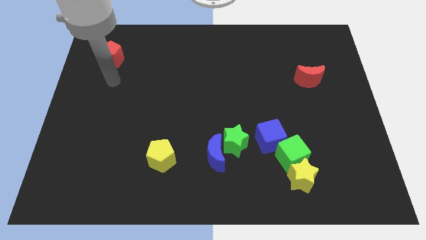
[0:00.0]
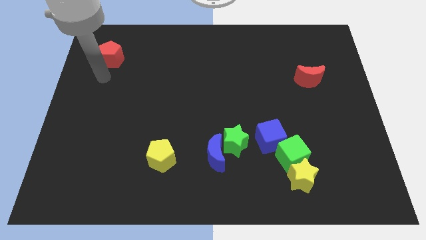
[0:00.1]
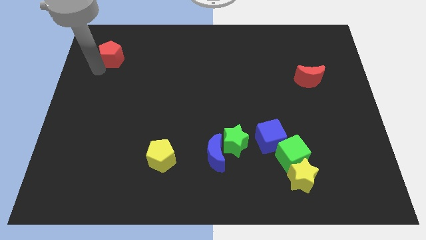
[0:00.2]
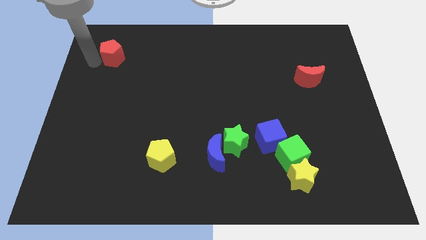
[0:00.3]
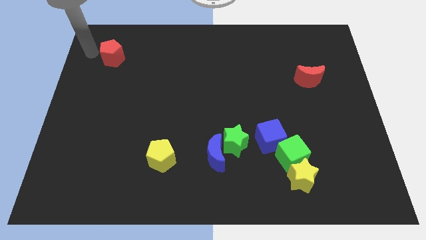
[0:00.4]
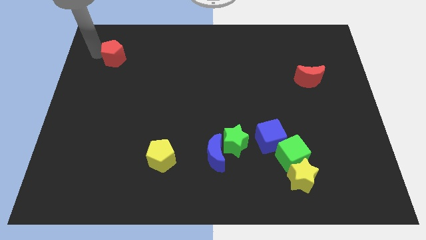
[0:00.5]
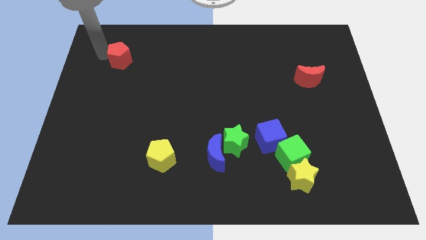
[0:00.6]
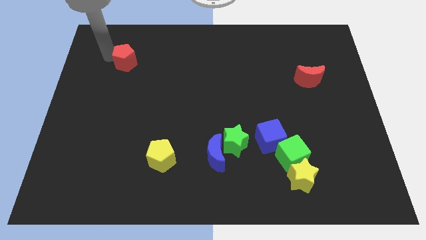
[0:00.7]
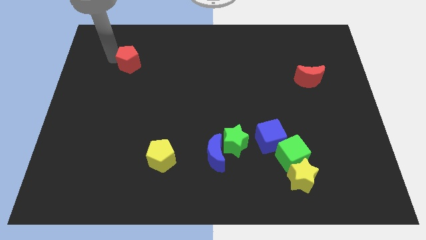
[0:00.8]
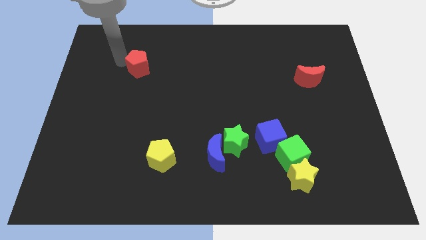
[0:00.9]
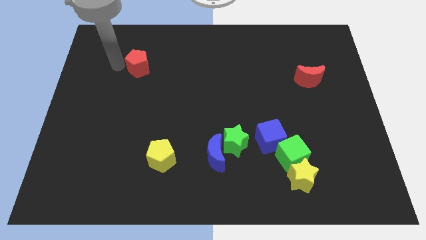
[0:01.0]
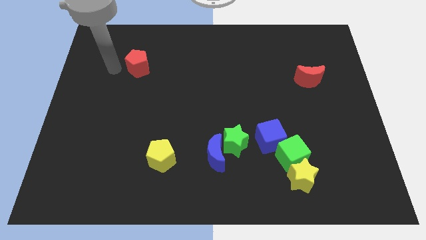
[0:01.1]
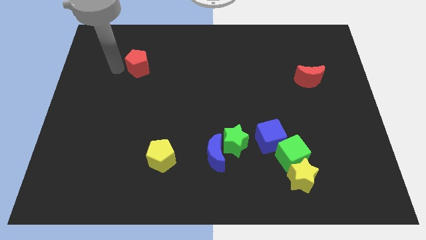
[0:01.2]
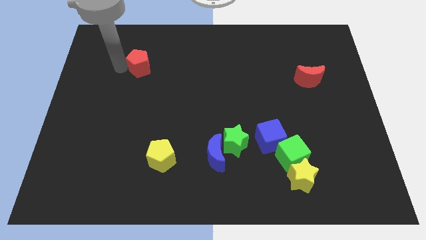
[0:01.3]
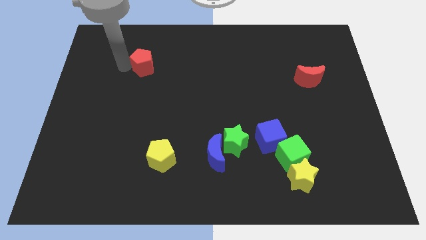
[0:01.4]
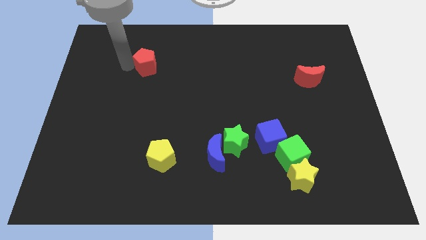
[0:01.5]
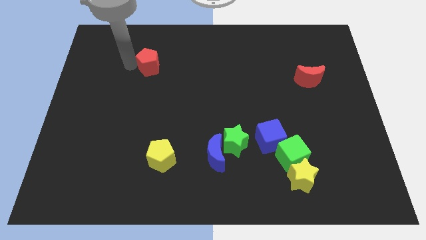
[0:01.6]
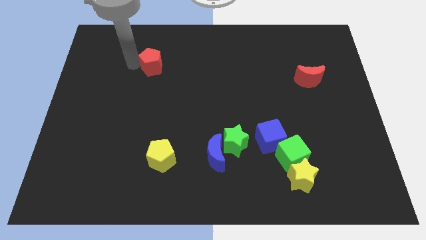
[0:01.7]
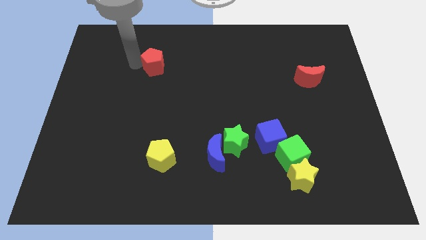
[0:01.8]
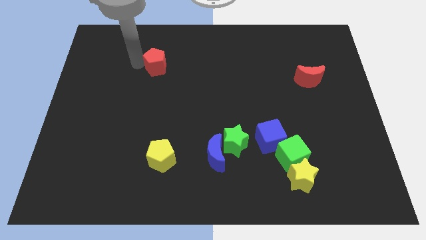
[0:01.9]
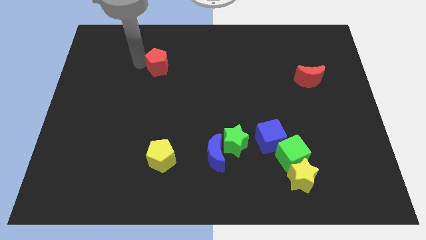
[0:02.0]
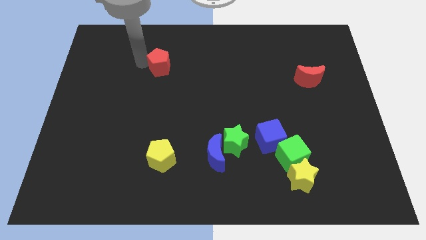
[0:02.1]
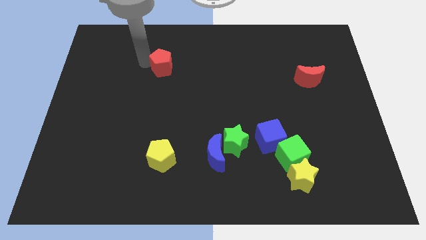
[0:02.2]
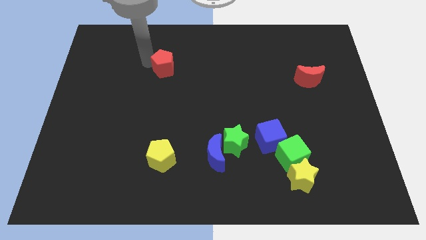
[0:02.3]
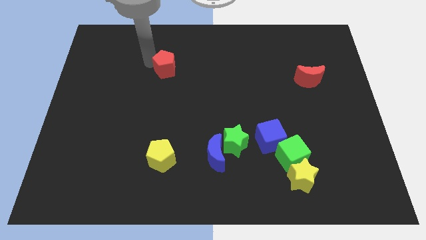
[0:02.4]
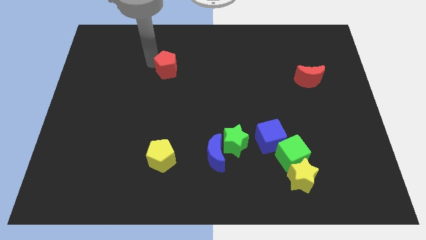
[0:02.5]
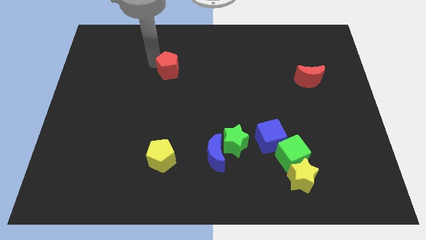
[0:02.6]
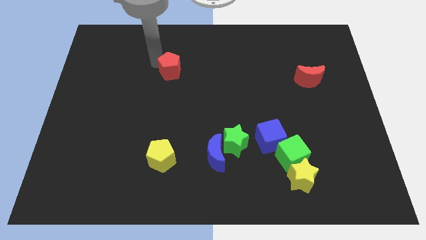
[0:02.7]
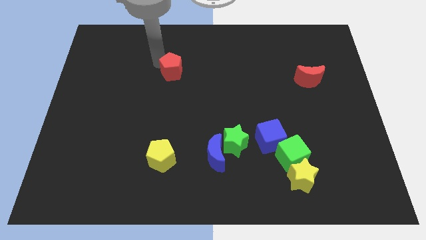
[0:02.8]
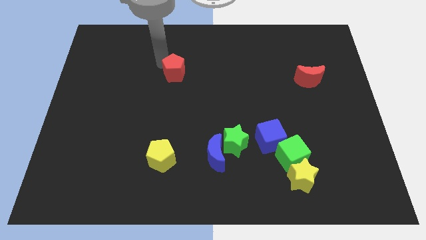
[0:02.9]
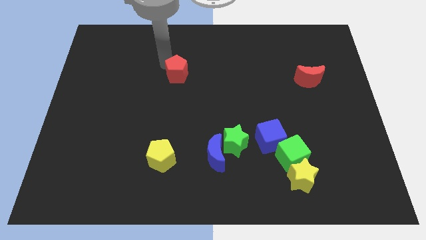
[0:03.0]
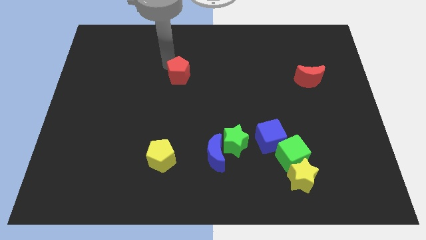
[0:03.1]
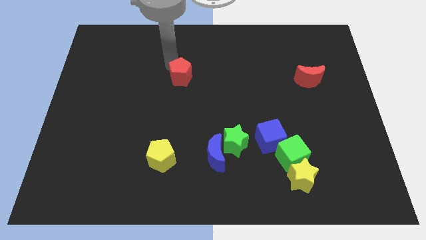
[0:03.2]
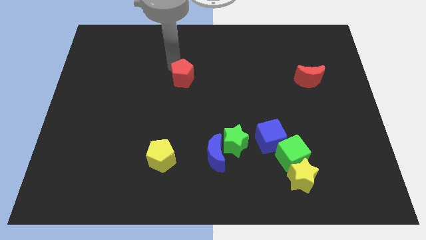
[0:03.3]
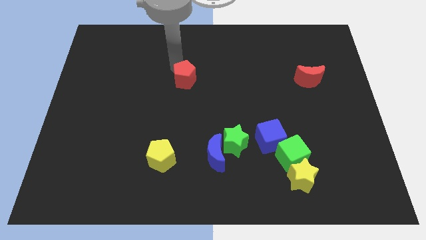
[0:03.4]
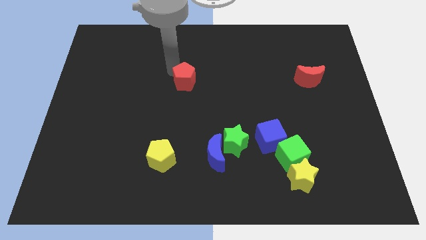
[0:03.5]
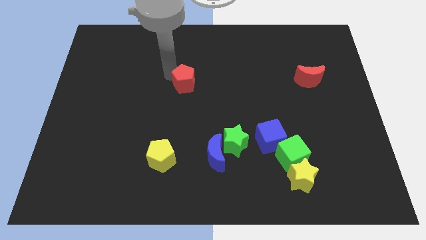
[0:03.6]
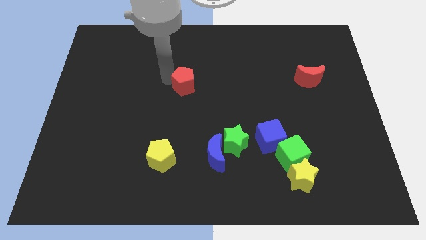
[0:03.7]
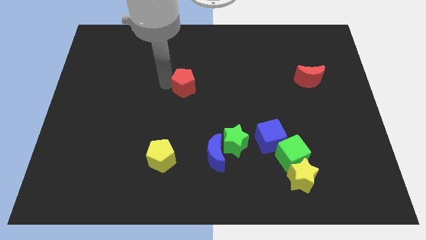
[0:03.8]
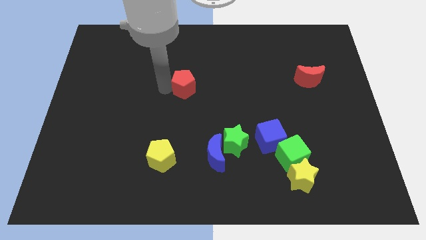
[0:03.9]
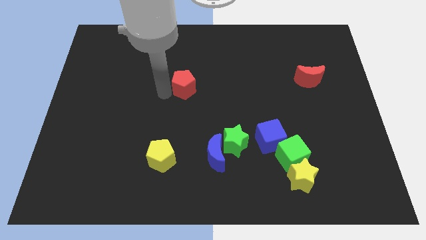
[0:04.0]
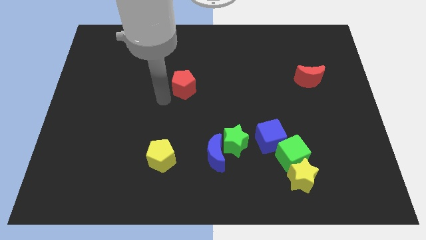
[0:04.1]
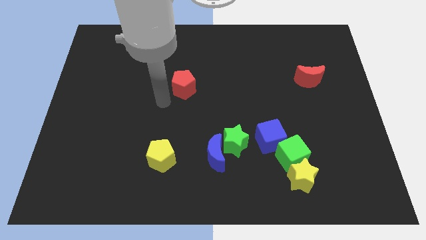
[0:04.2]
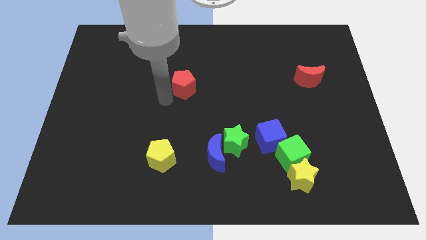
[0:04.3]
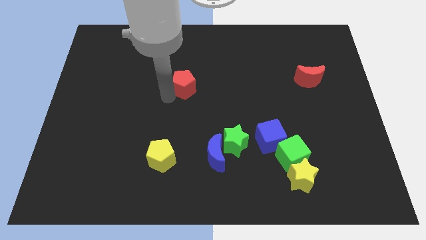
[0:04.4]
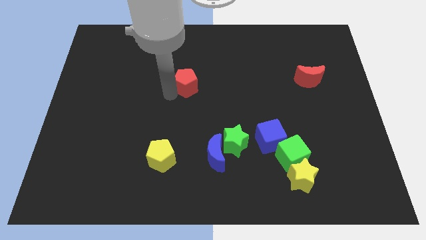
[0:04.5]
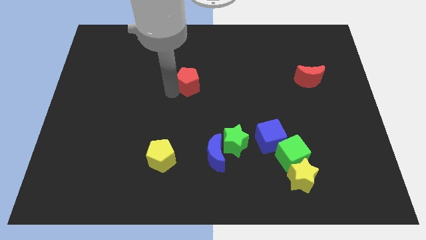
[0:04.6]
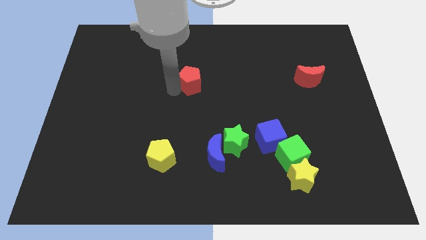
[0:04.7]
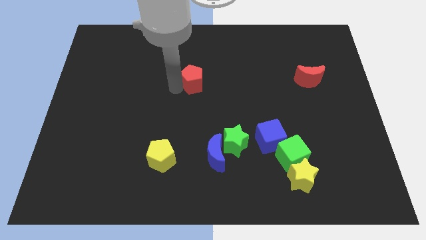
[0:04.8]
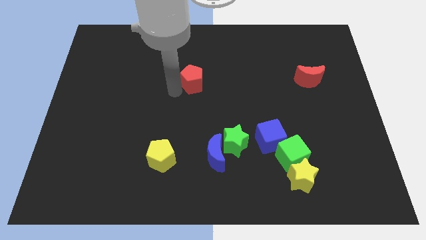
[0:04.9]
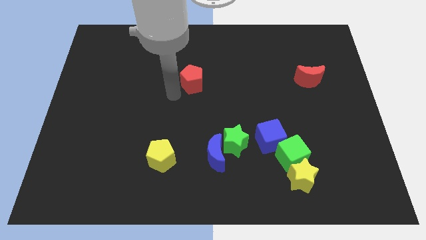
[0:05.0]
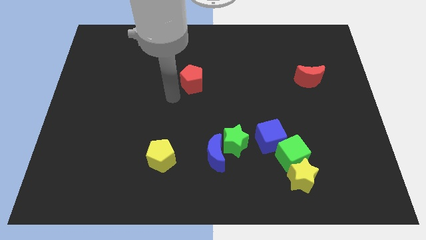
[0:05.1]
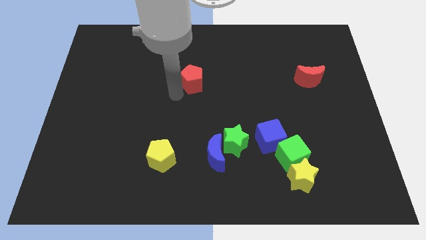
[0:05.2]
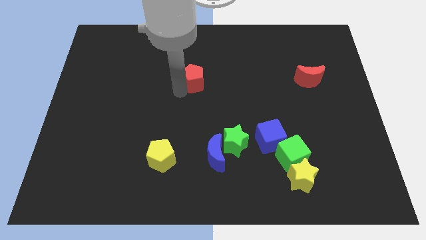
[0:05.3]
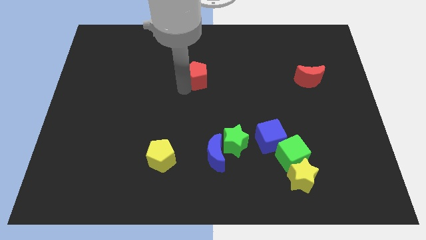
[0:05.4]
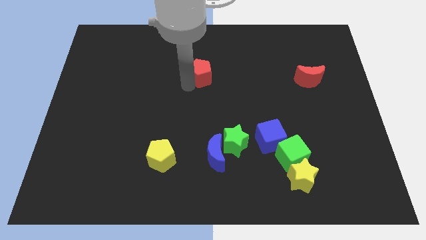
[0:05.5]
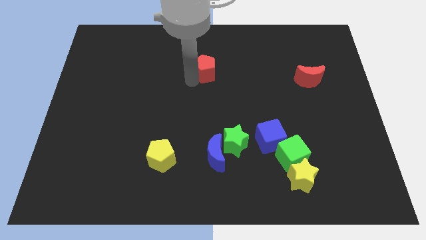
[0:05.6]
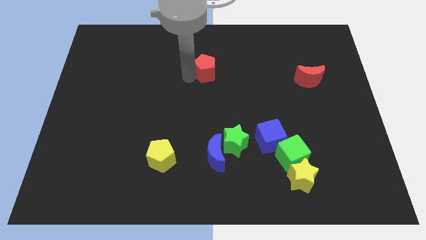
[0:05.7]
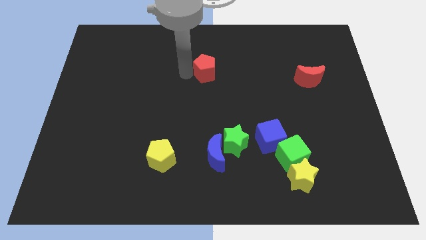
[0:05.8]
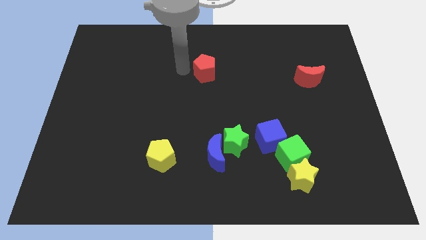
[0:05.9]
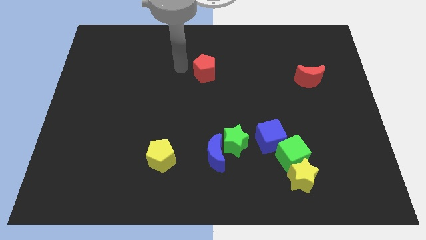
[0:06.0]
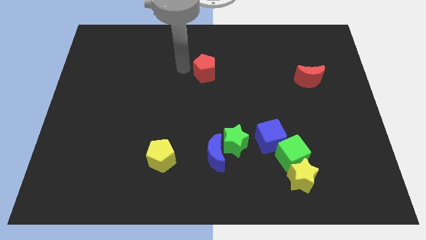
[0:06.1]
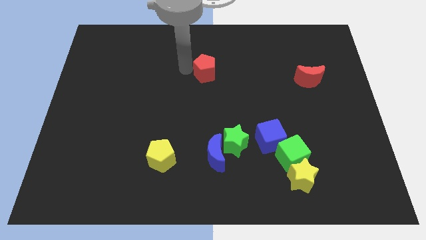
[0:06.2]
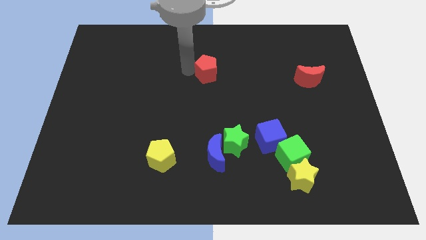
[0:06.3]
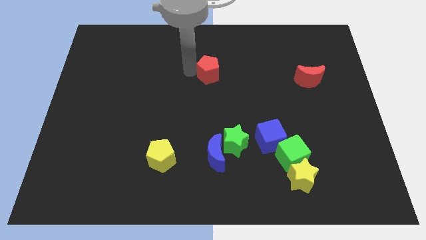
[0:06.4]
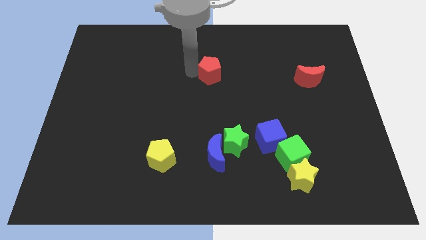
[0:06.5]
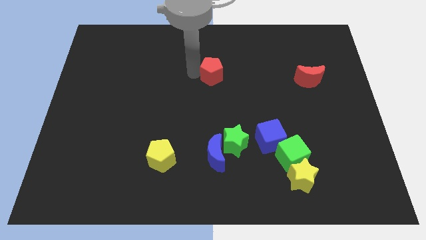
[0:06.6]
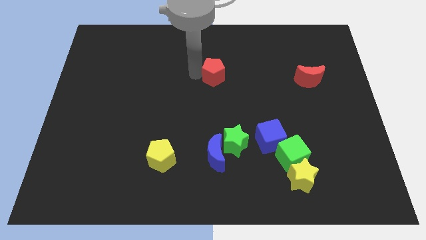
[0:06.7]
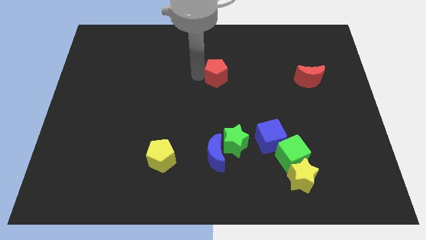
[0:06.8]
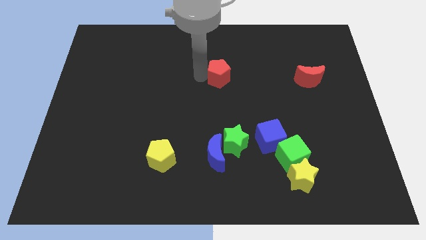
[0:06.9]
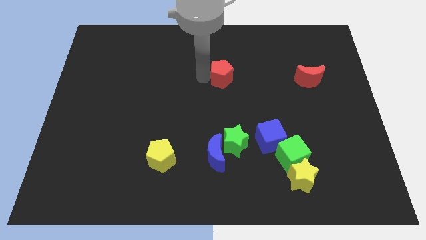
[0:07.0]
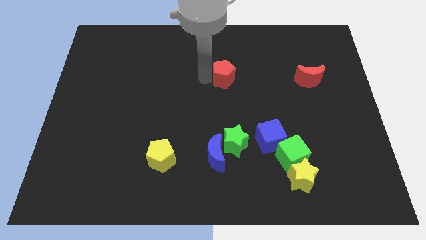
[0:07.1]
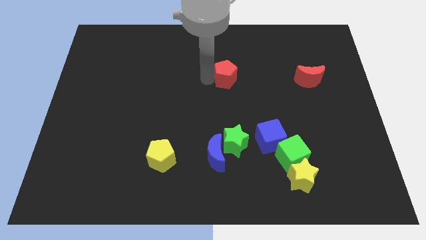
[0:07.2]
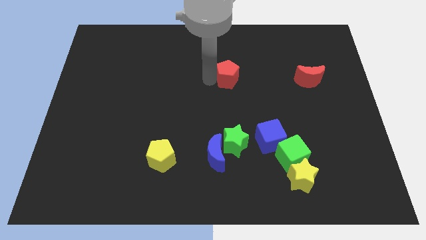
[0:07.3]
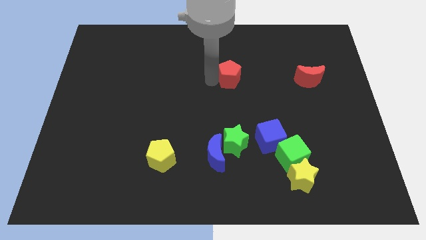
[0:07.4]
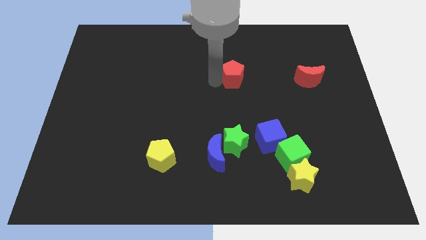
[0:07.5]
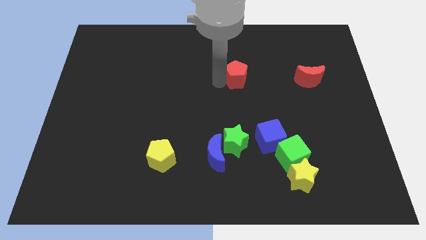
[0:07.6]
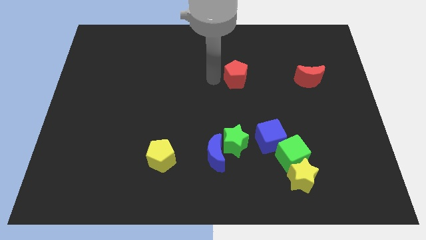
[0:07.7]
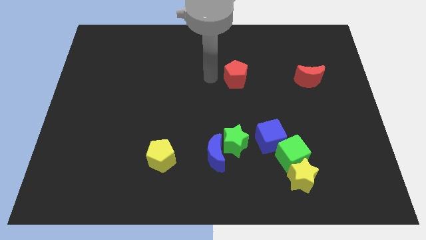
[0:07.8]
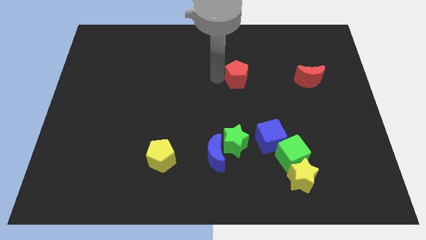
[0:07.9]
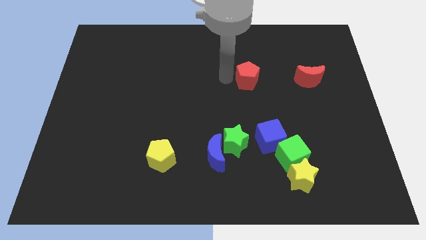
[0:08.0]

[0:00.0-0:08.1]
slide the red pentagon to the left side of the red moon
